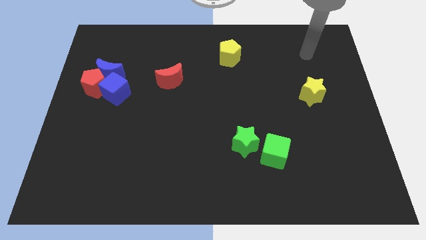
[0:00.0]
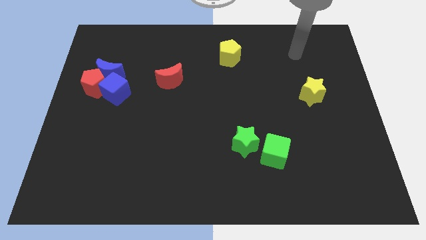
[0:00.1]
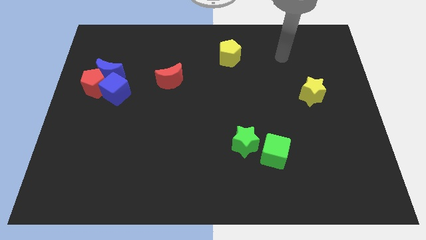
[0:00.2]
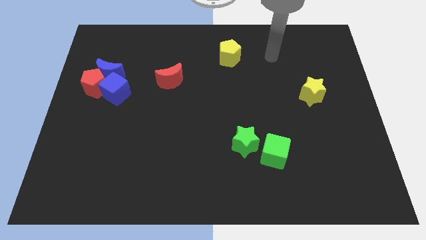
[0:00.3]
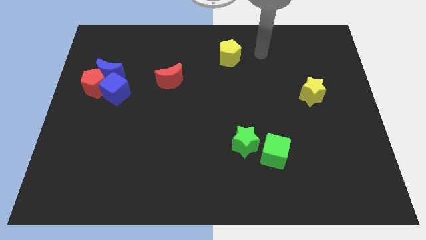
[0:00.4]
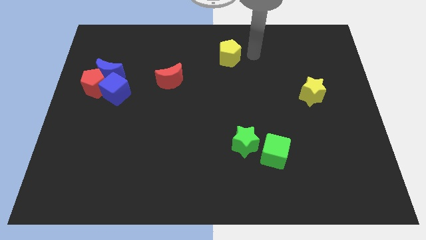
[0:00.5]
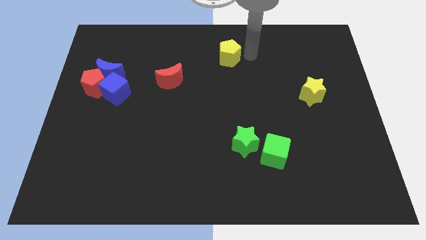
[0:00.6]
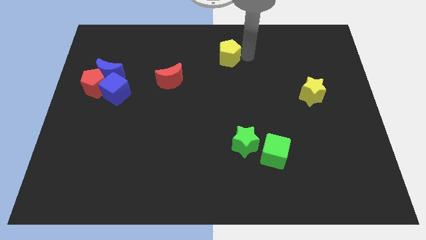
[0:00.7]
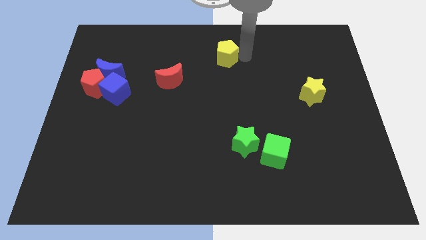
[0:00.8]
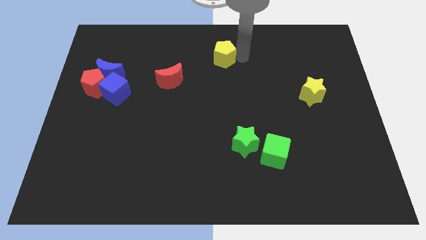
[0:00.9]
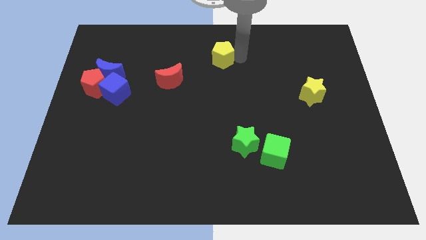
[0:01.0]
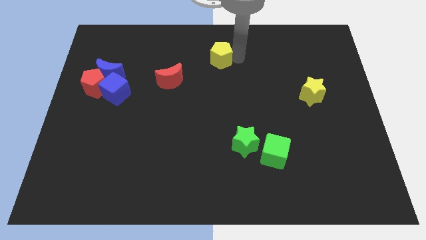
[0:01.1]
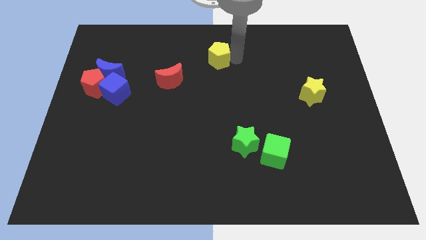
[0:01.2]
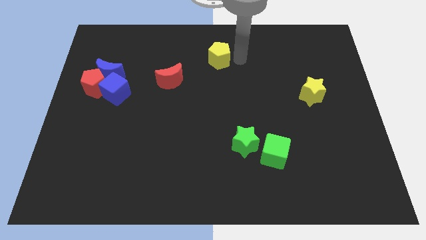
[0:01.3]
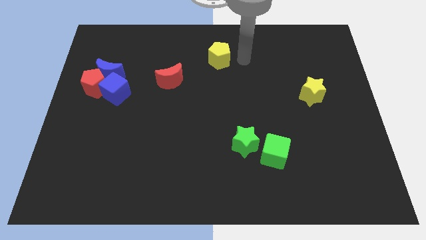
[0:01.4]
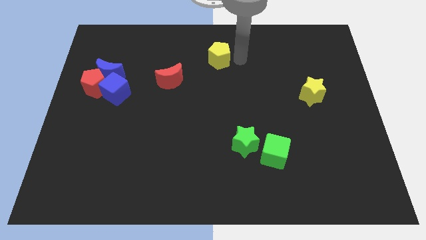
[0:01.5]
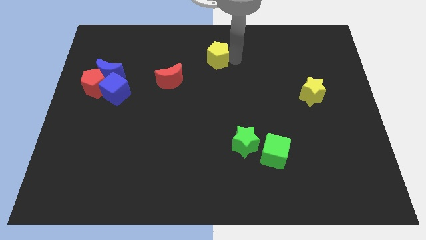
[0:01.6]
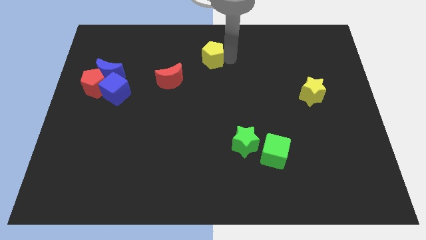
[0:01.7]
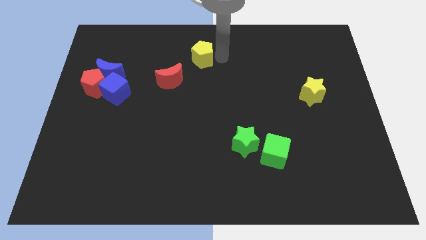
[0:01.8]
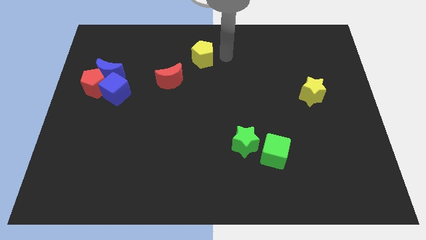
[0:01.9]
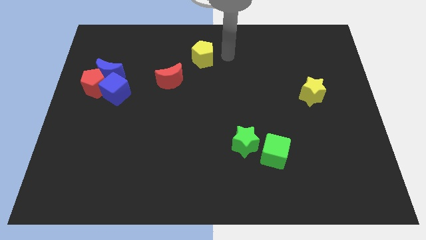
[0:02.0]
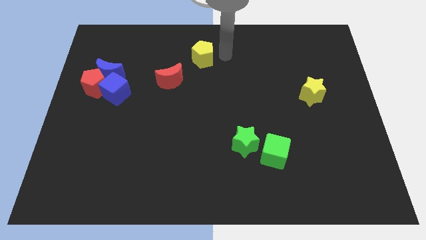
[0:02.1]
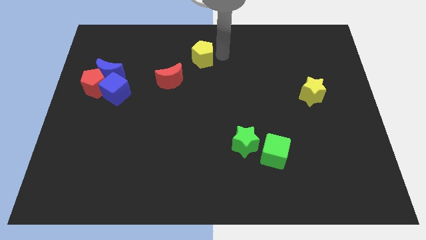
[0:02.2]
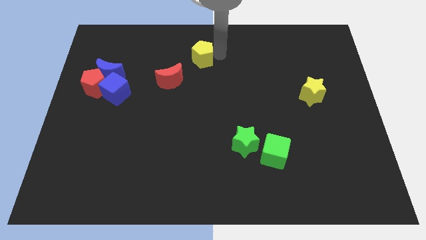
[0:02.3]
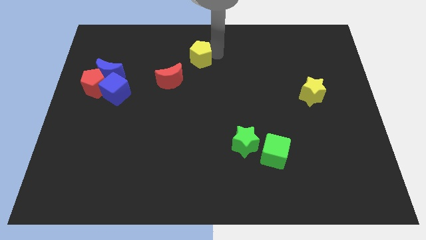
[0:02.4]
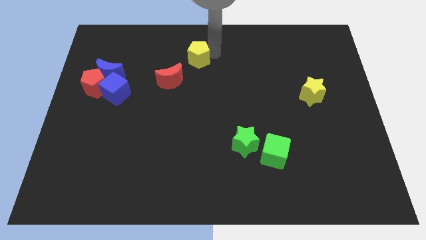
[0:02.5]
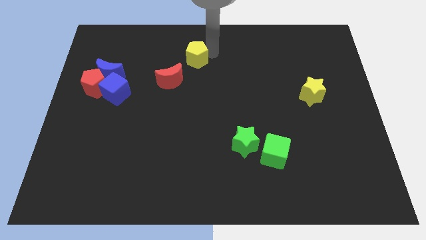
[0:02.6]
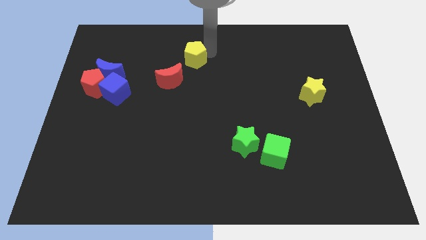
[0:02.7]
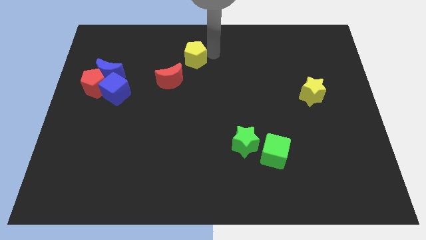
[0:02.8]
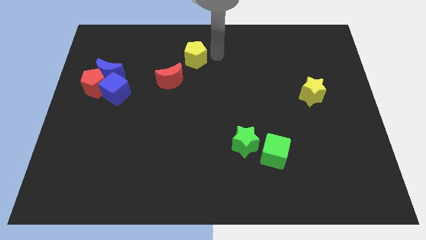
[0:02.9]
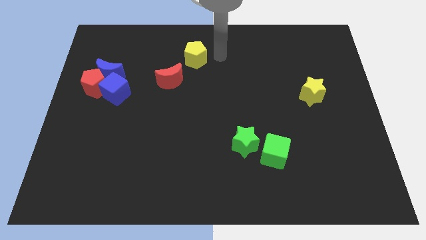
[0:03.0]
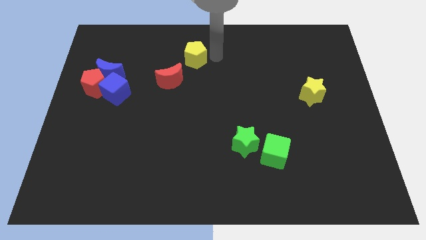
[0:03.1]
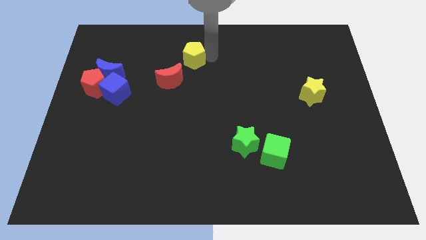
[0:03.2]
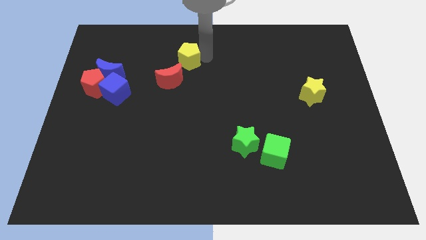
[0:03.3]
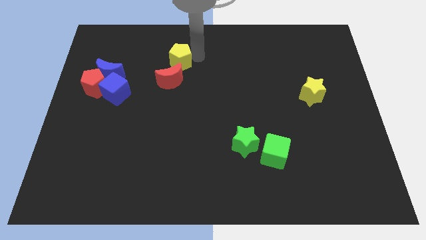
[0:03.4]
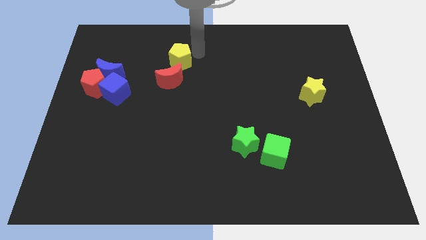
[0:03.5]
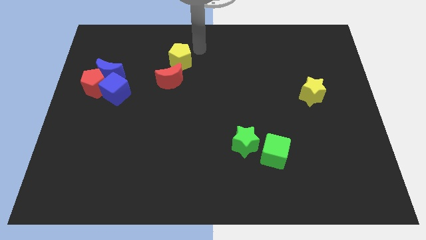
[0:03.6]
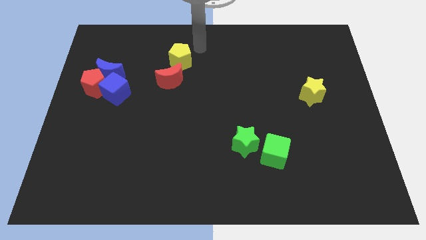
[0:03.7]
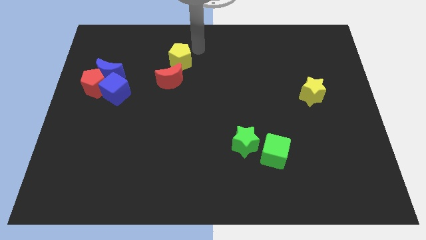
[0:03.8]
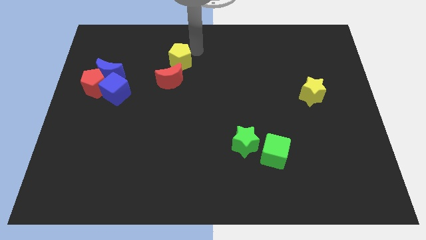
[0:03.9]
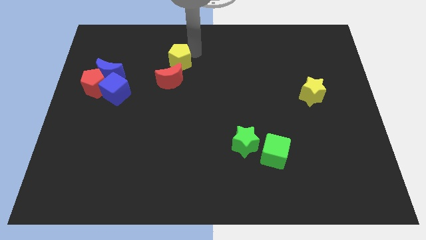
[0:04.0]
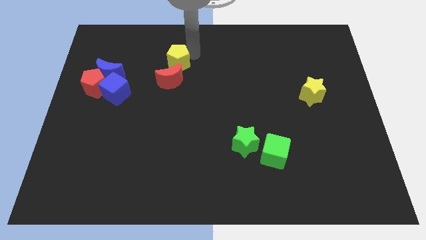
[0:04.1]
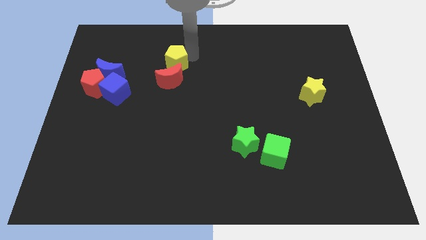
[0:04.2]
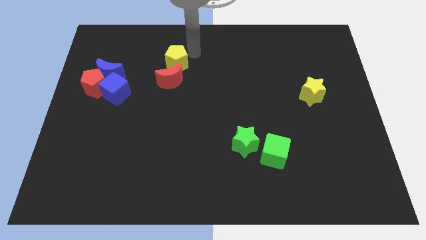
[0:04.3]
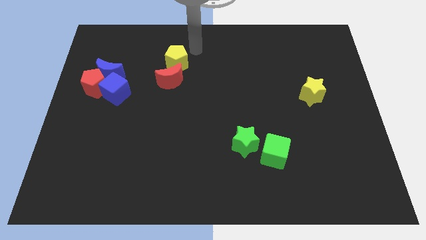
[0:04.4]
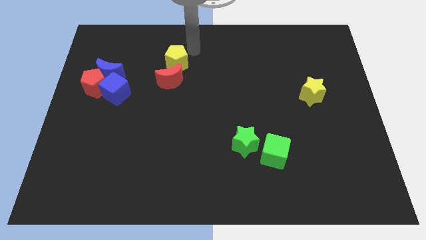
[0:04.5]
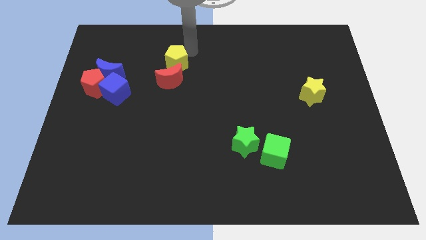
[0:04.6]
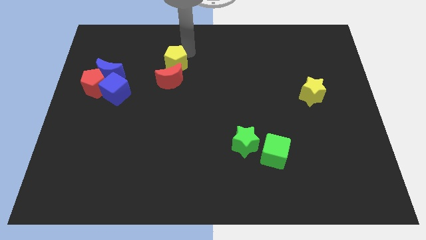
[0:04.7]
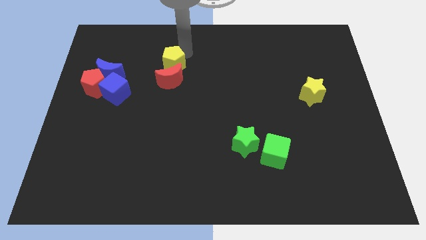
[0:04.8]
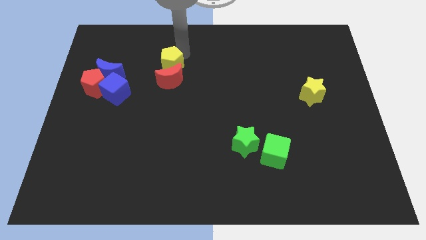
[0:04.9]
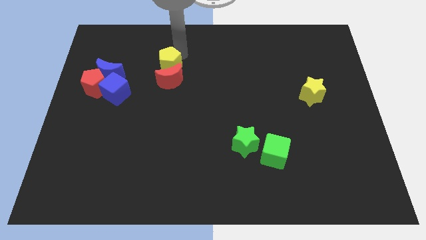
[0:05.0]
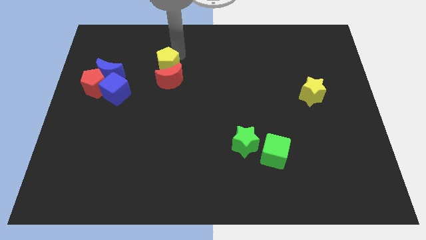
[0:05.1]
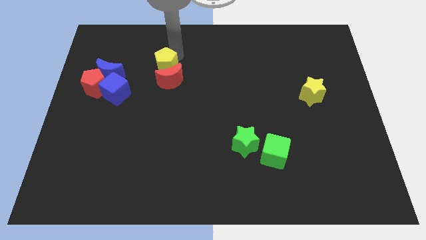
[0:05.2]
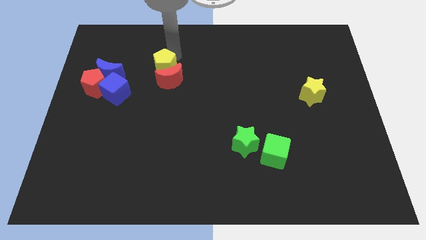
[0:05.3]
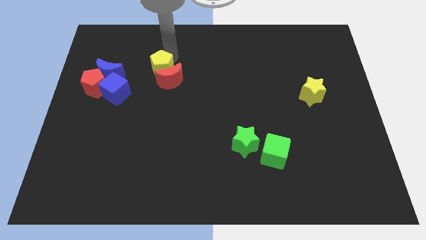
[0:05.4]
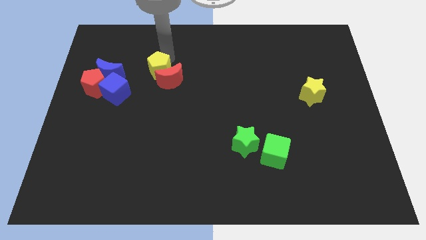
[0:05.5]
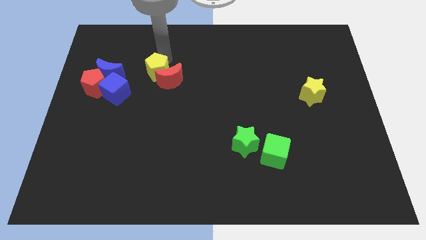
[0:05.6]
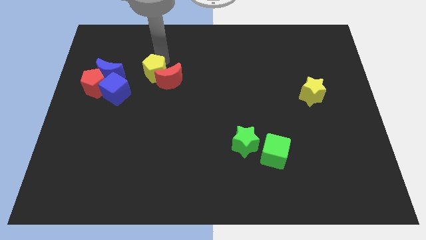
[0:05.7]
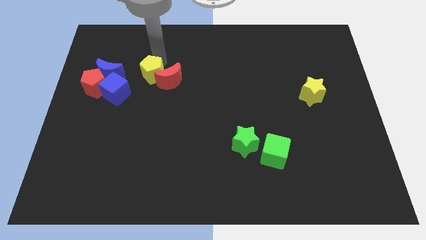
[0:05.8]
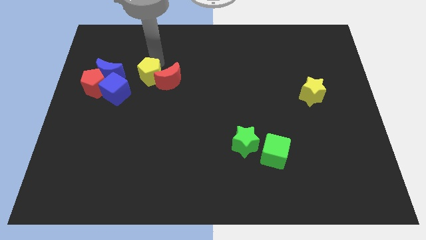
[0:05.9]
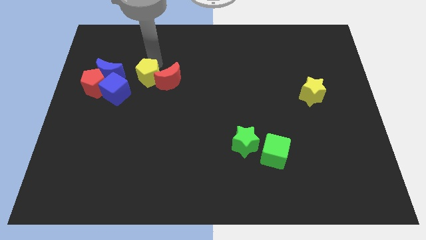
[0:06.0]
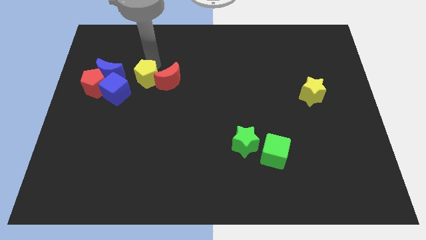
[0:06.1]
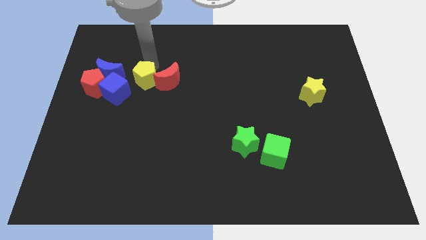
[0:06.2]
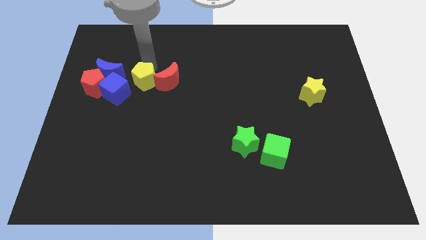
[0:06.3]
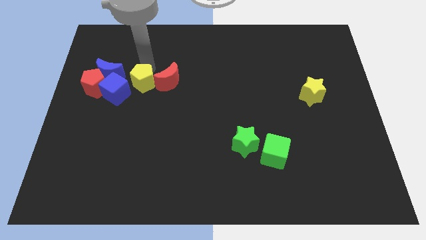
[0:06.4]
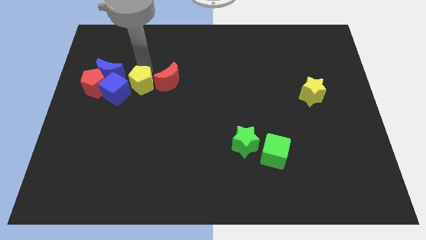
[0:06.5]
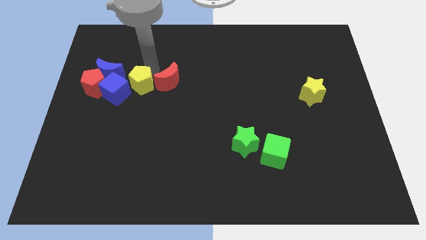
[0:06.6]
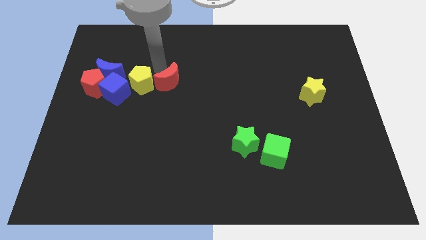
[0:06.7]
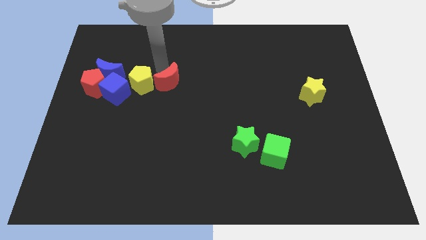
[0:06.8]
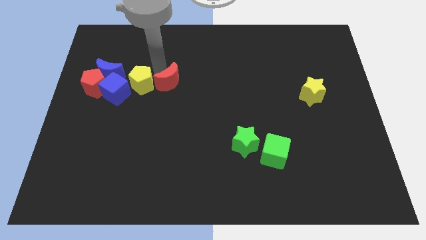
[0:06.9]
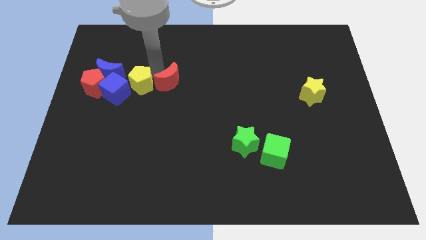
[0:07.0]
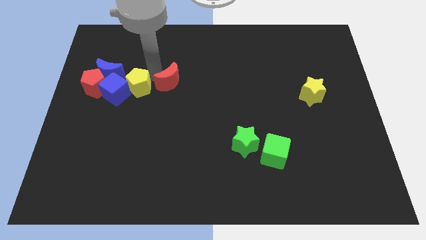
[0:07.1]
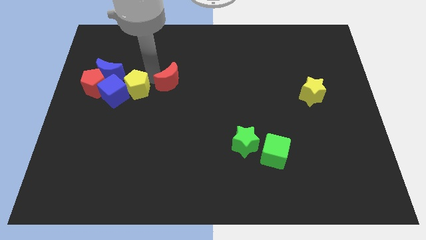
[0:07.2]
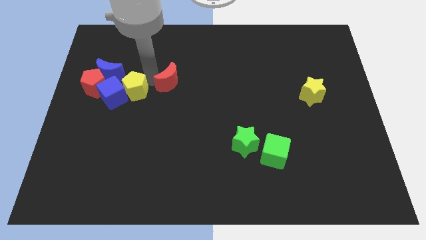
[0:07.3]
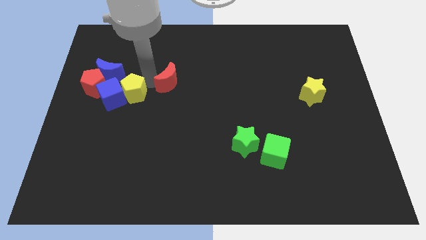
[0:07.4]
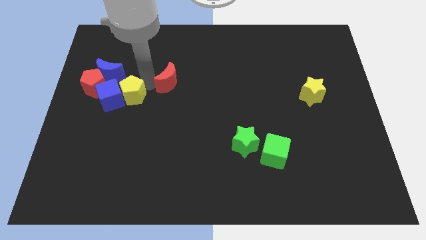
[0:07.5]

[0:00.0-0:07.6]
move the yellow pentagon to the bottom right of the red pentagon
